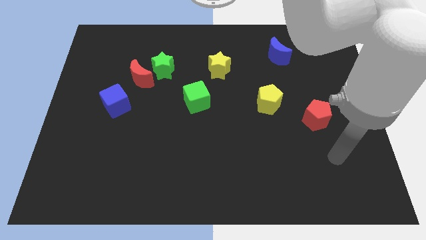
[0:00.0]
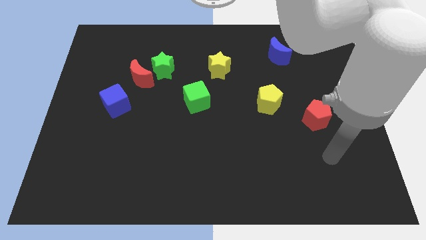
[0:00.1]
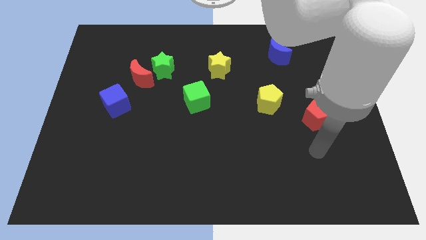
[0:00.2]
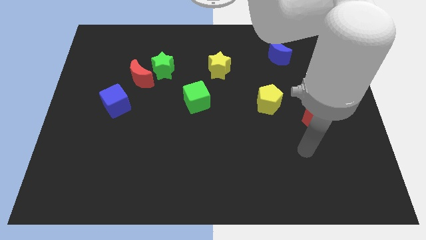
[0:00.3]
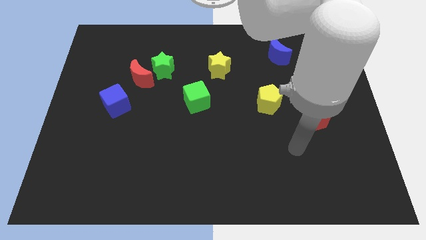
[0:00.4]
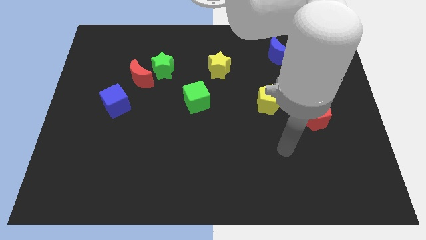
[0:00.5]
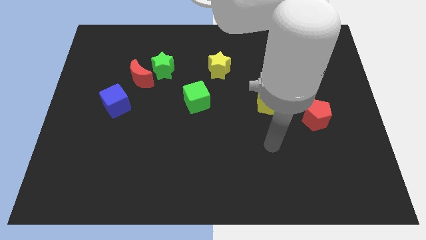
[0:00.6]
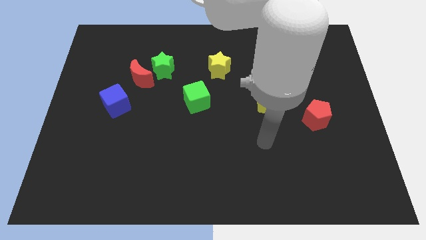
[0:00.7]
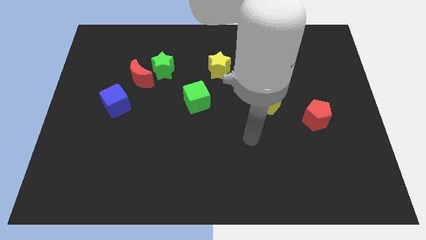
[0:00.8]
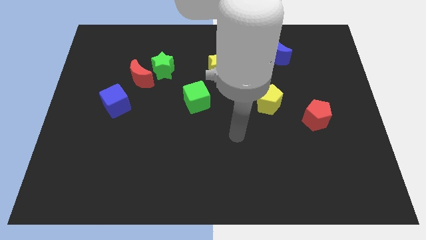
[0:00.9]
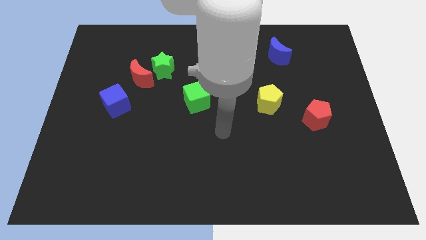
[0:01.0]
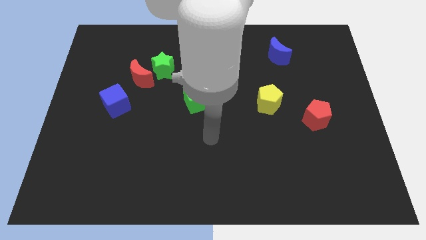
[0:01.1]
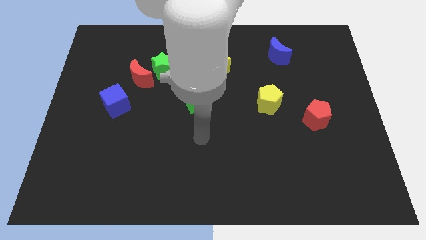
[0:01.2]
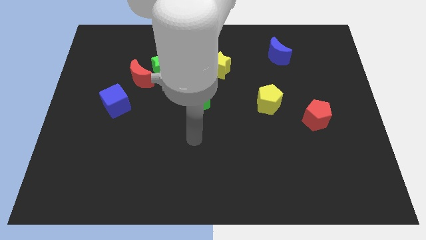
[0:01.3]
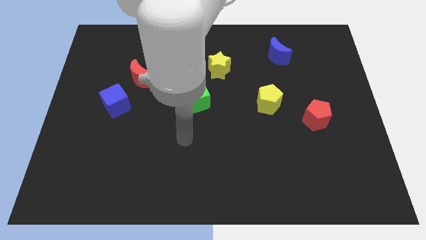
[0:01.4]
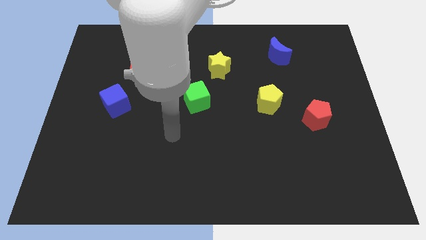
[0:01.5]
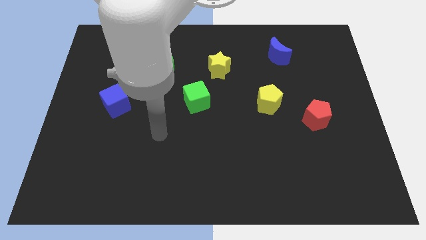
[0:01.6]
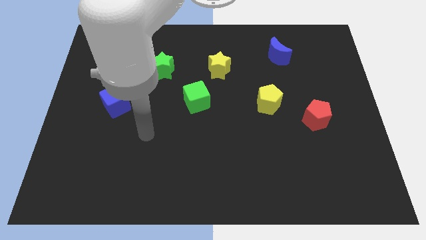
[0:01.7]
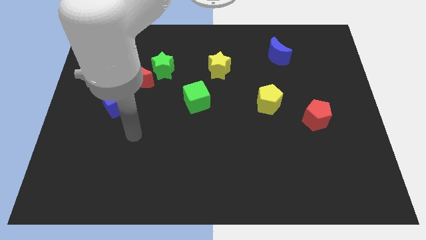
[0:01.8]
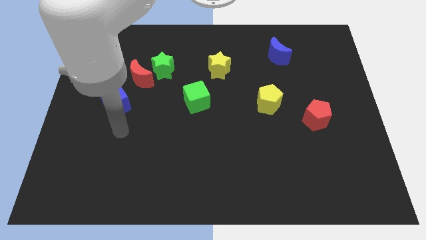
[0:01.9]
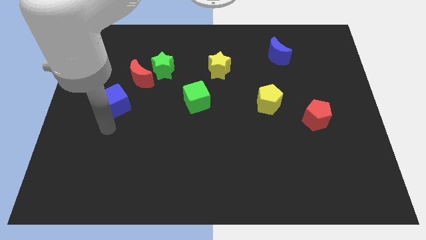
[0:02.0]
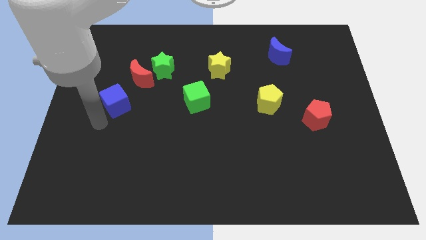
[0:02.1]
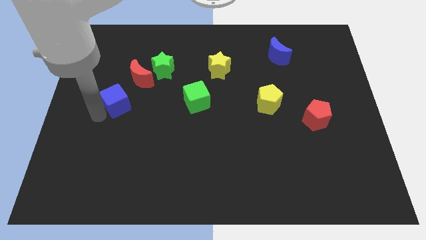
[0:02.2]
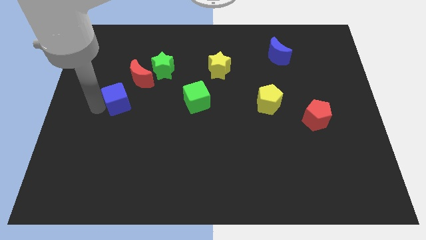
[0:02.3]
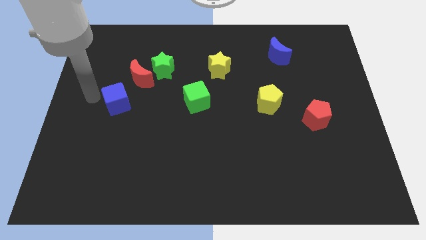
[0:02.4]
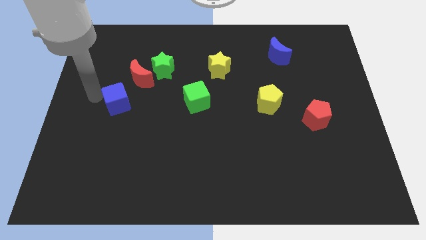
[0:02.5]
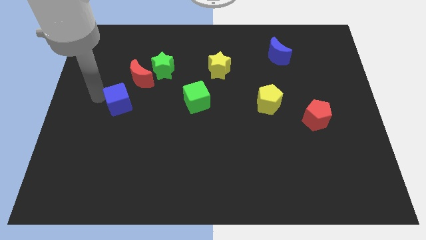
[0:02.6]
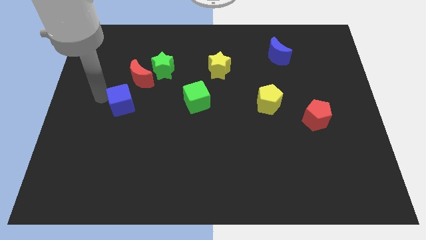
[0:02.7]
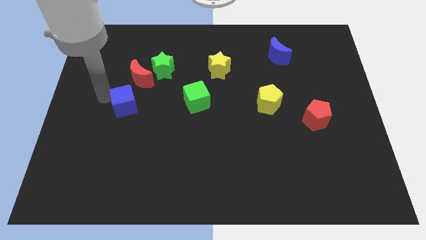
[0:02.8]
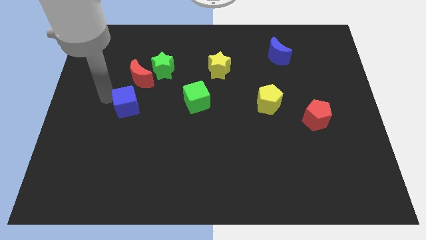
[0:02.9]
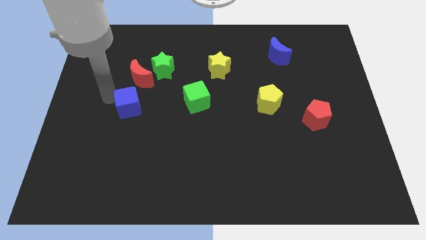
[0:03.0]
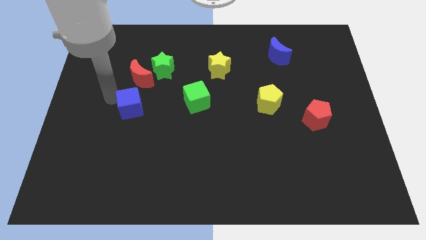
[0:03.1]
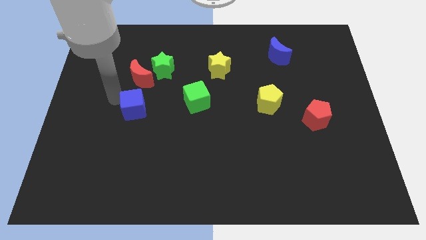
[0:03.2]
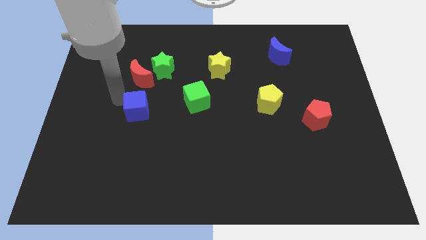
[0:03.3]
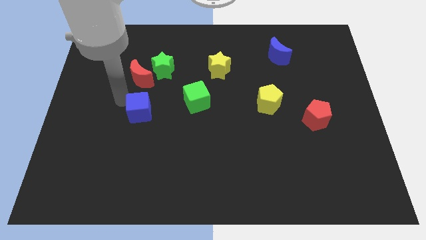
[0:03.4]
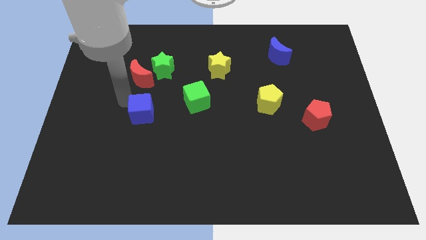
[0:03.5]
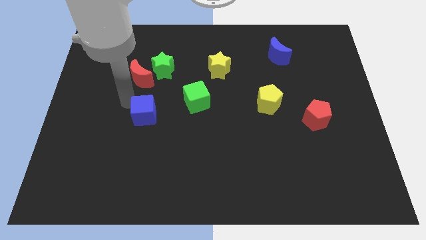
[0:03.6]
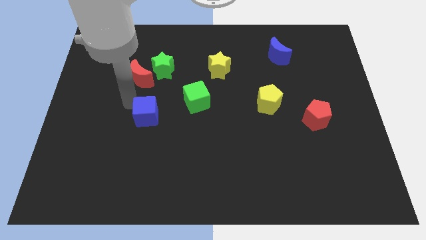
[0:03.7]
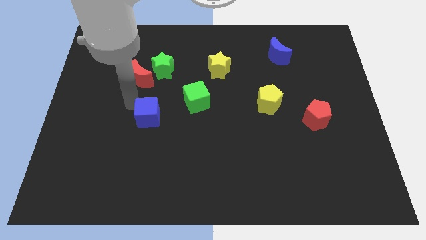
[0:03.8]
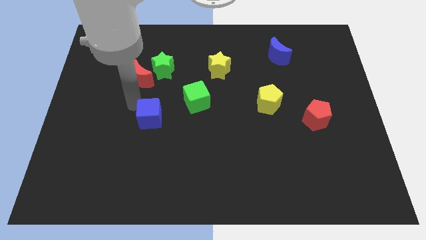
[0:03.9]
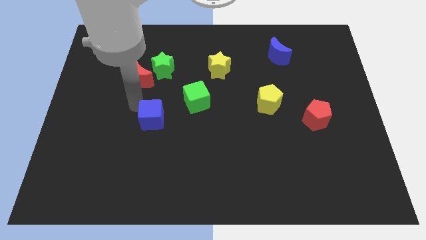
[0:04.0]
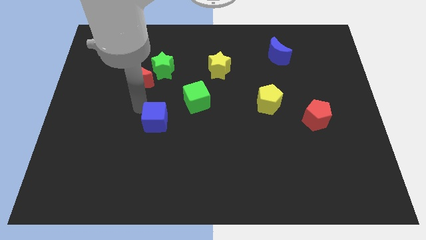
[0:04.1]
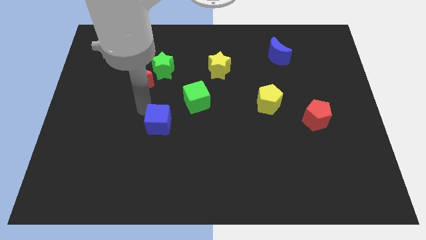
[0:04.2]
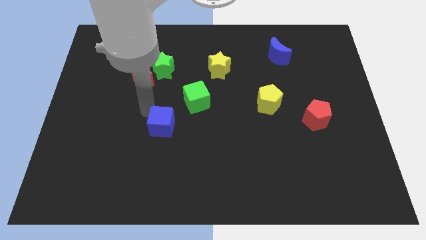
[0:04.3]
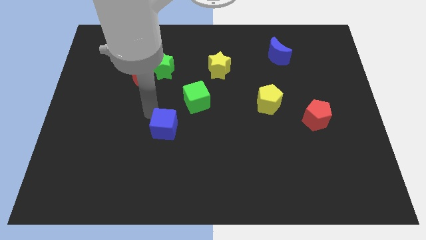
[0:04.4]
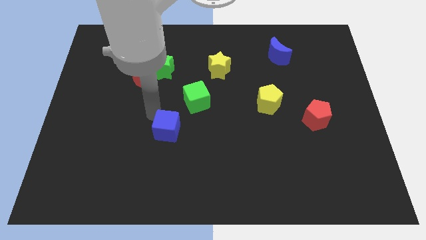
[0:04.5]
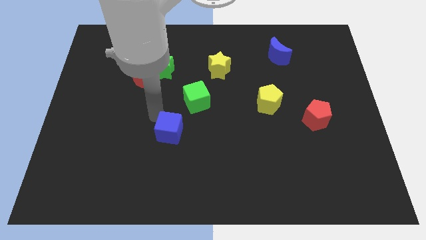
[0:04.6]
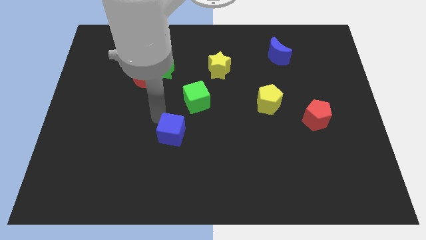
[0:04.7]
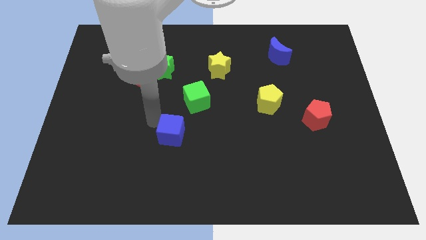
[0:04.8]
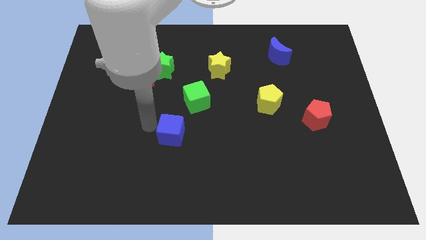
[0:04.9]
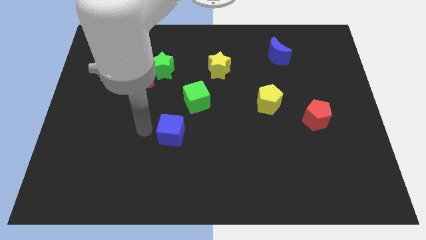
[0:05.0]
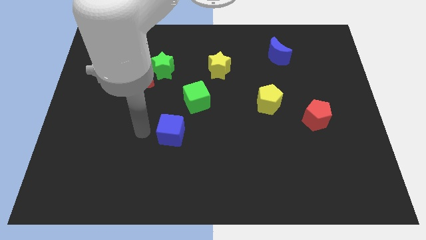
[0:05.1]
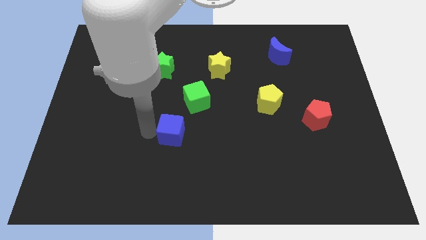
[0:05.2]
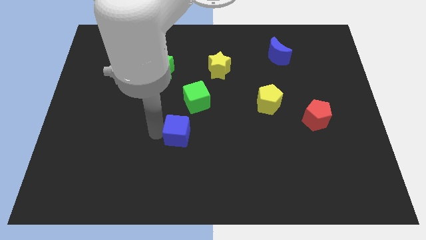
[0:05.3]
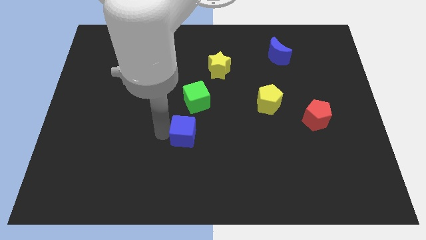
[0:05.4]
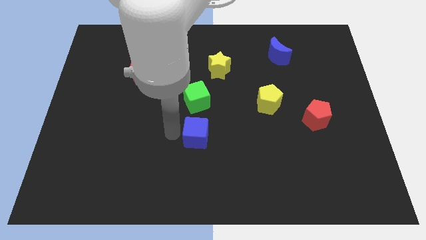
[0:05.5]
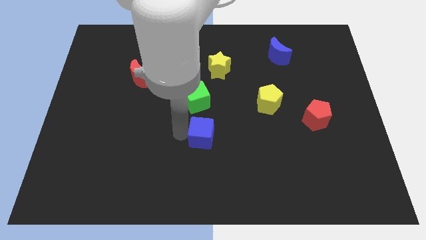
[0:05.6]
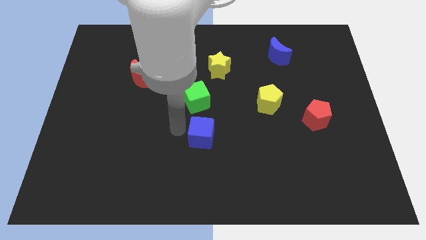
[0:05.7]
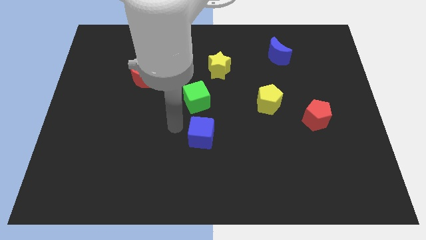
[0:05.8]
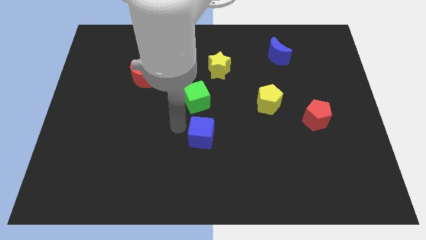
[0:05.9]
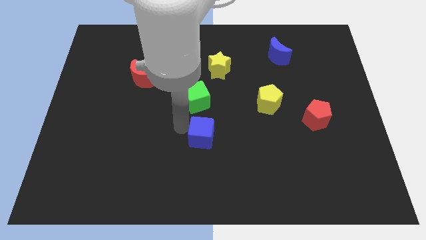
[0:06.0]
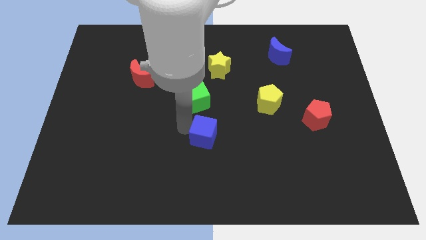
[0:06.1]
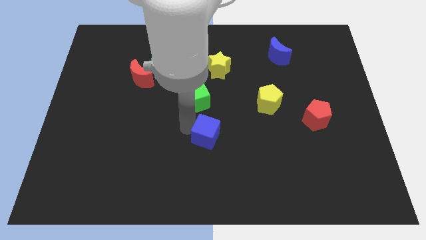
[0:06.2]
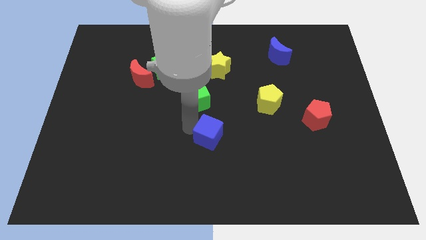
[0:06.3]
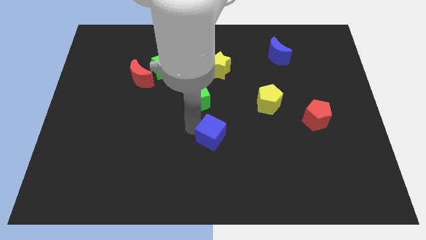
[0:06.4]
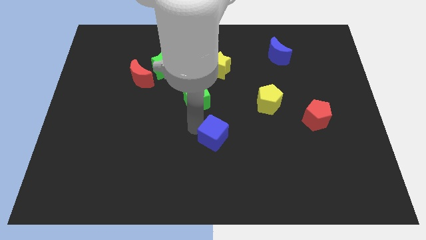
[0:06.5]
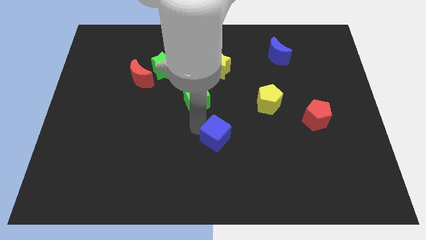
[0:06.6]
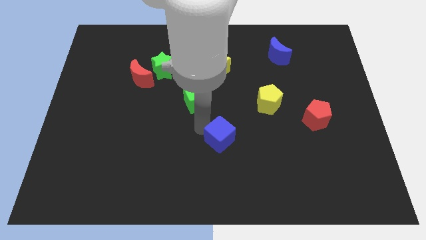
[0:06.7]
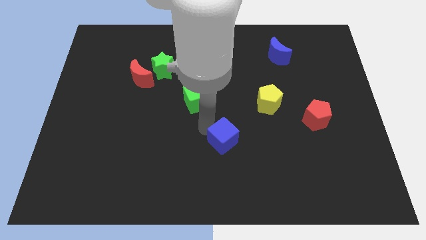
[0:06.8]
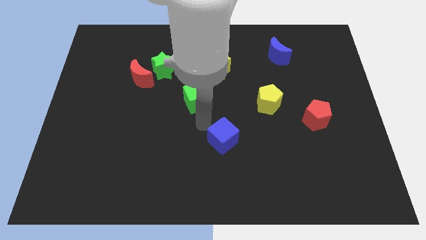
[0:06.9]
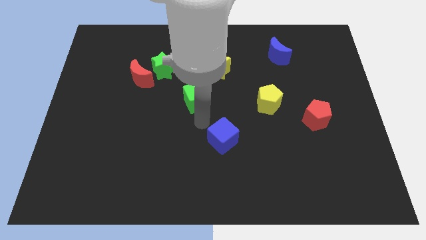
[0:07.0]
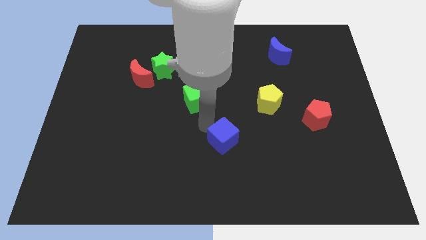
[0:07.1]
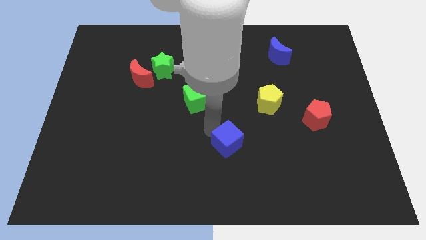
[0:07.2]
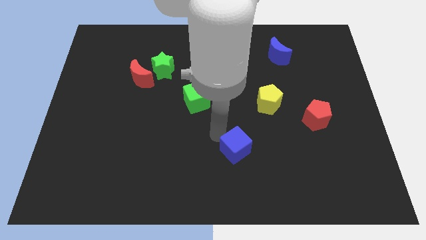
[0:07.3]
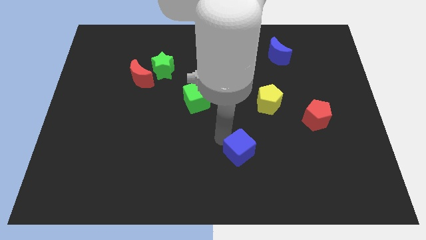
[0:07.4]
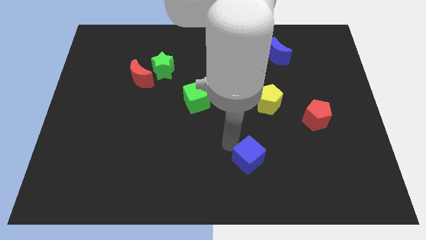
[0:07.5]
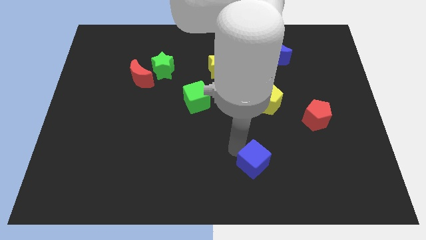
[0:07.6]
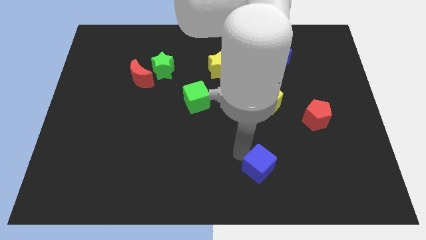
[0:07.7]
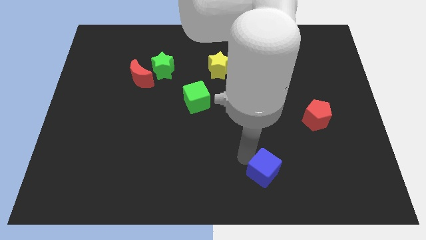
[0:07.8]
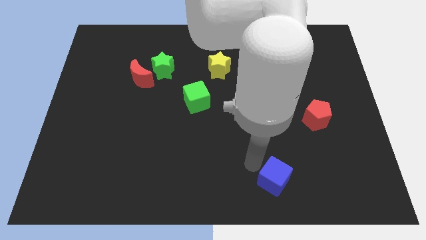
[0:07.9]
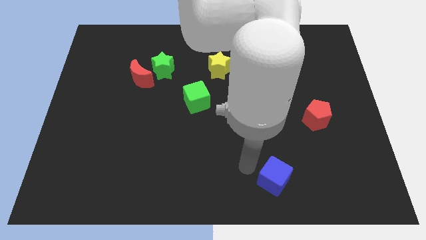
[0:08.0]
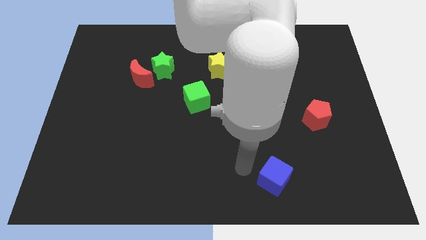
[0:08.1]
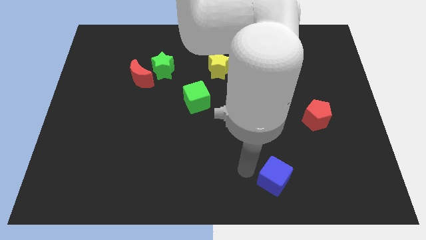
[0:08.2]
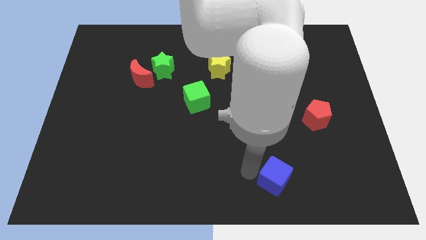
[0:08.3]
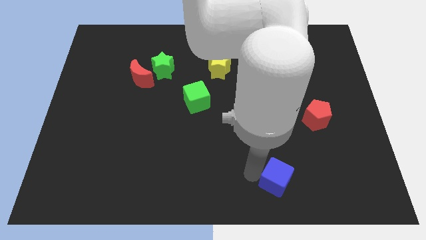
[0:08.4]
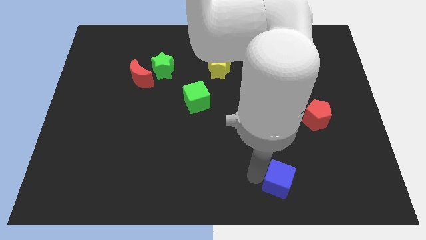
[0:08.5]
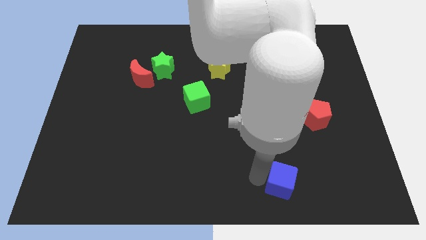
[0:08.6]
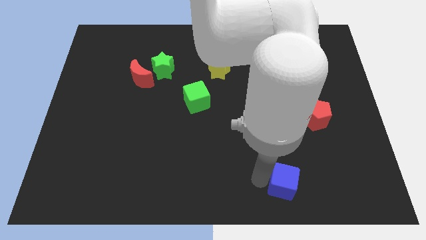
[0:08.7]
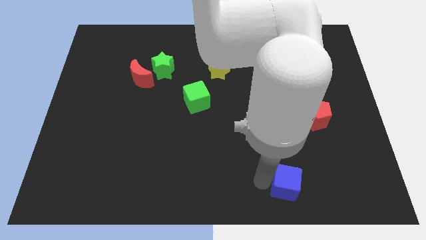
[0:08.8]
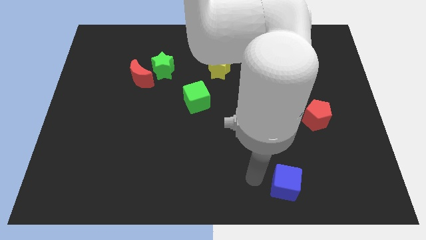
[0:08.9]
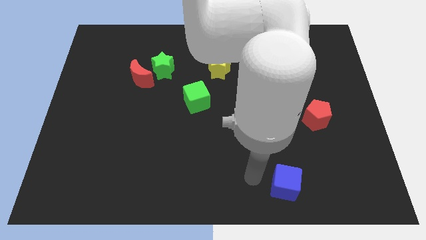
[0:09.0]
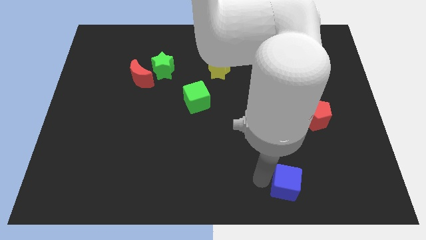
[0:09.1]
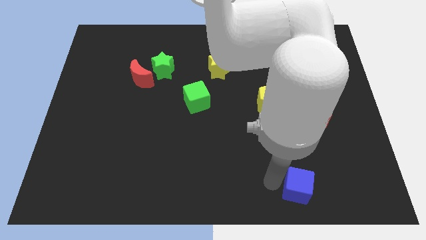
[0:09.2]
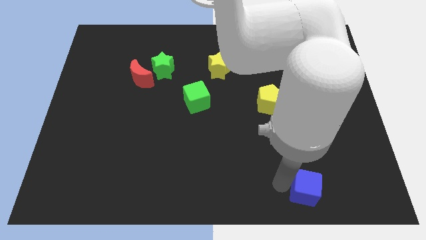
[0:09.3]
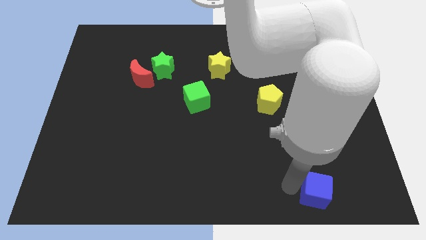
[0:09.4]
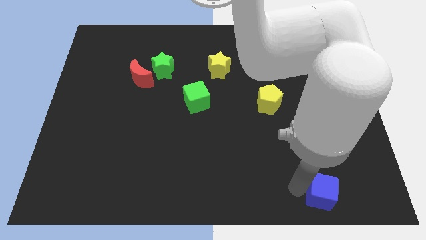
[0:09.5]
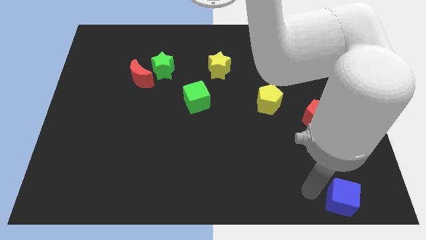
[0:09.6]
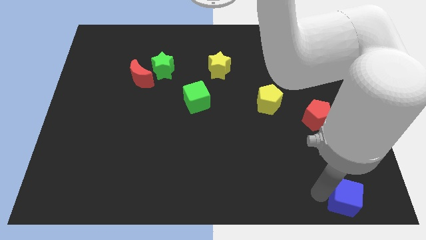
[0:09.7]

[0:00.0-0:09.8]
slide the blue cube to the bottom right corner
